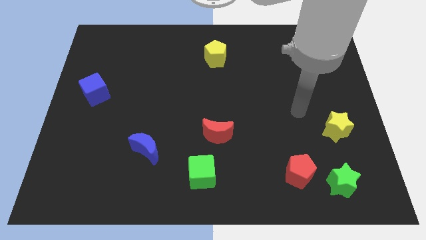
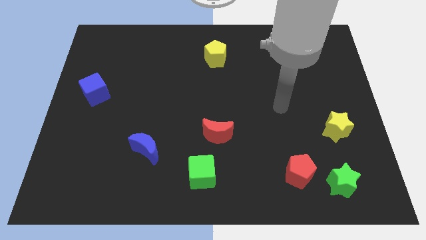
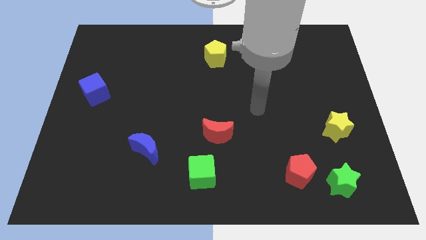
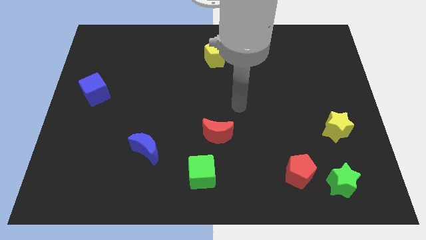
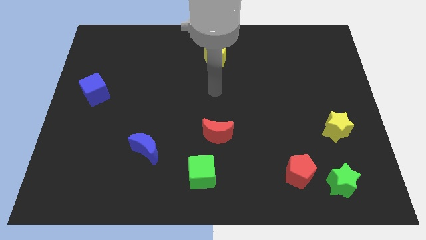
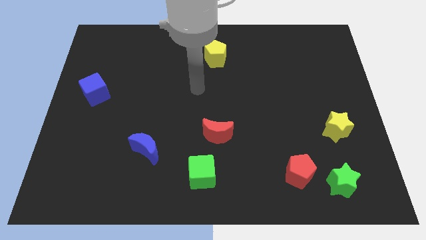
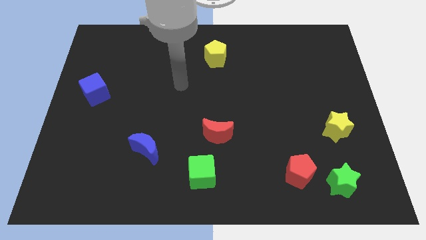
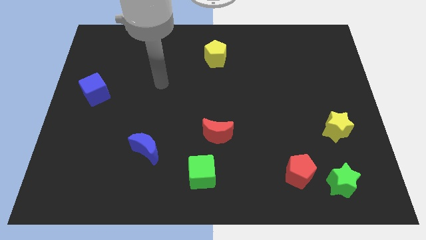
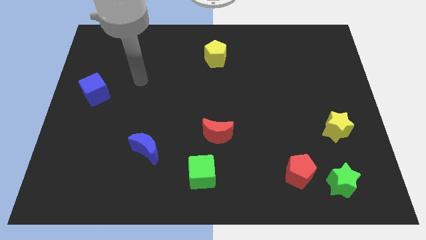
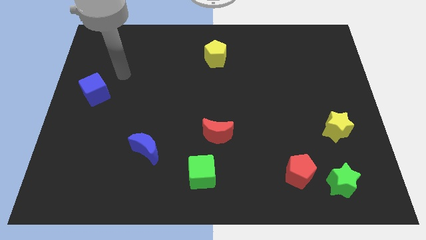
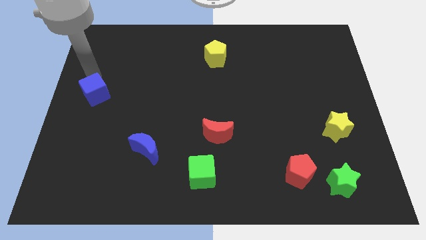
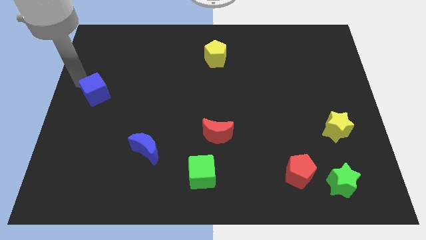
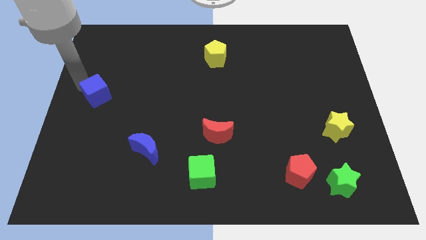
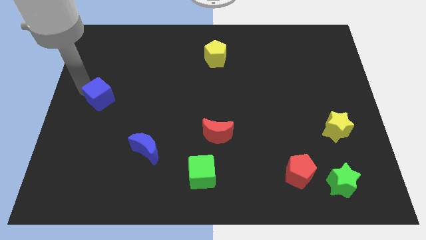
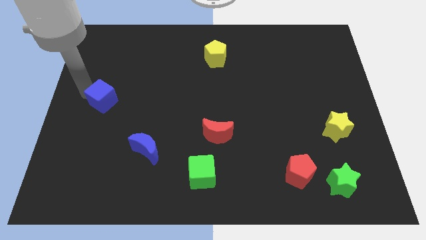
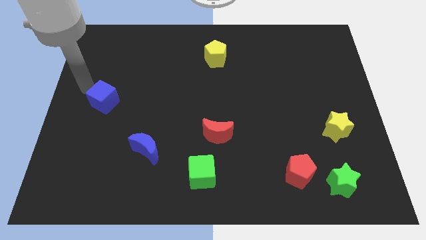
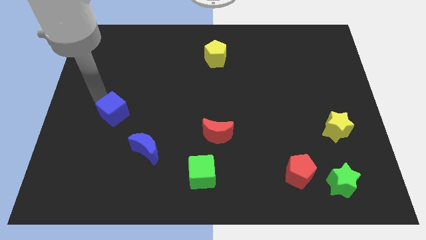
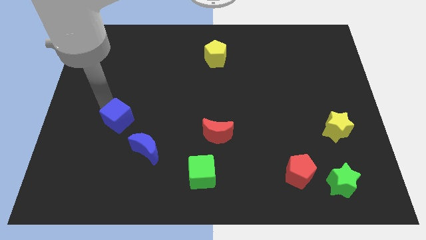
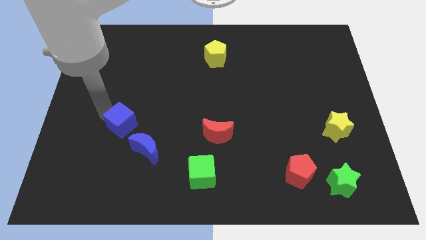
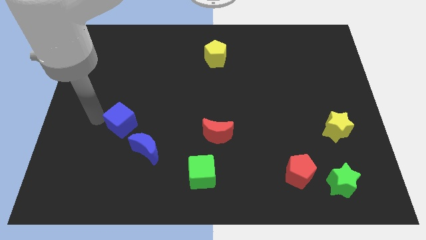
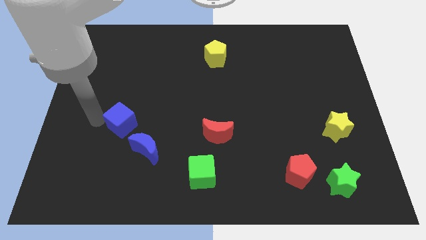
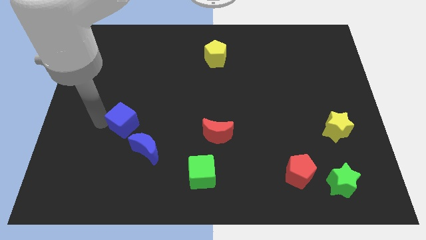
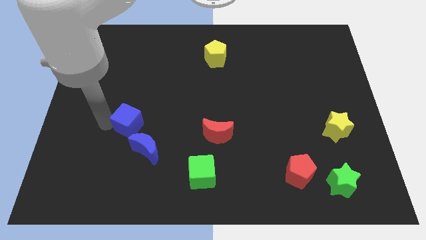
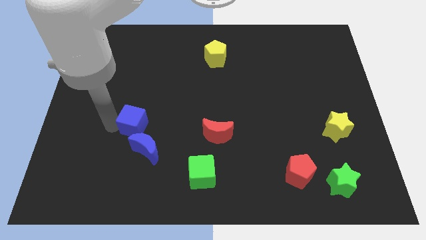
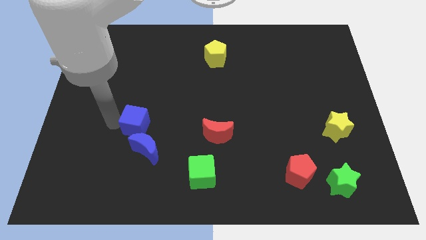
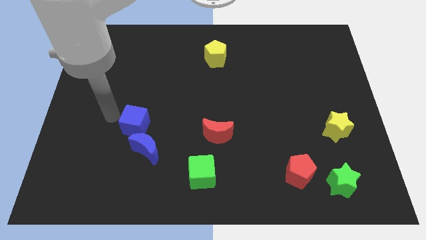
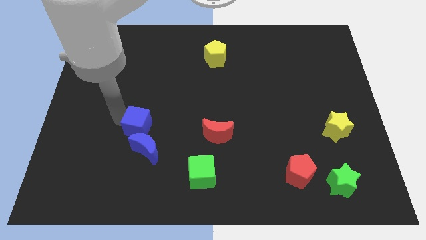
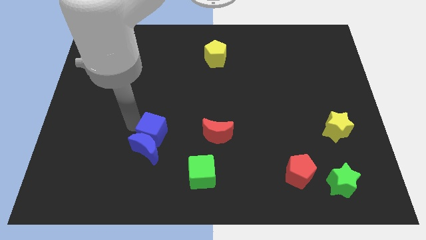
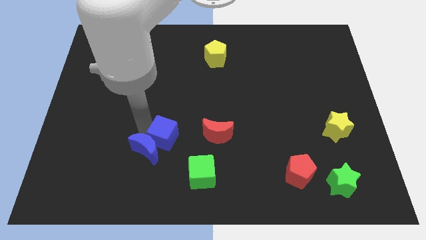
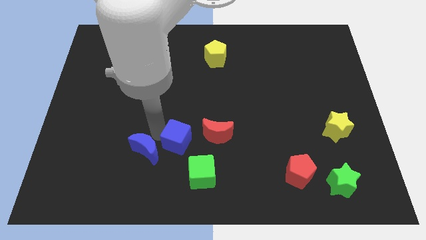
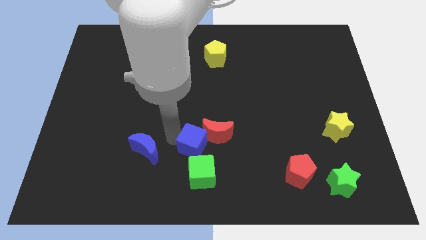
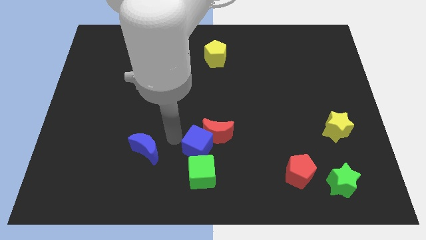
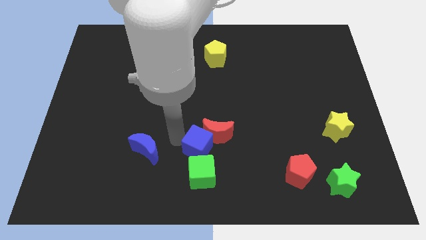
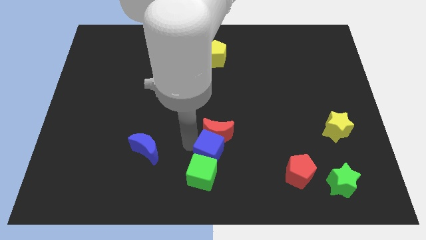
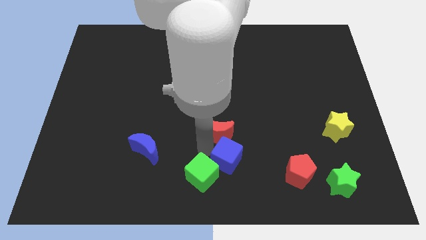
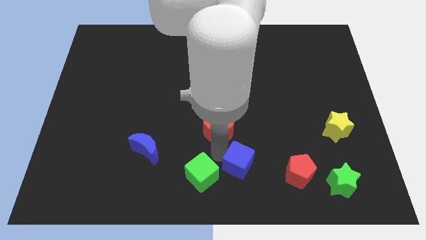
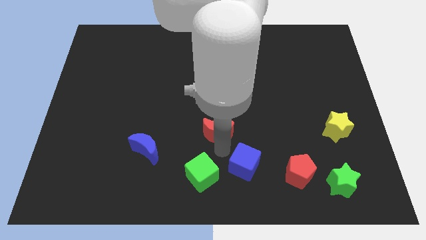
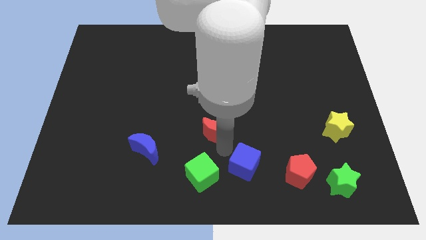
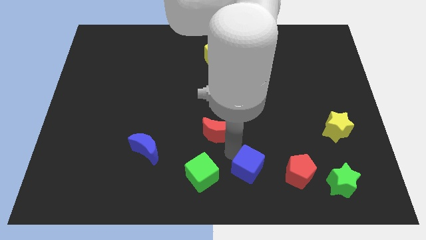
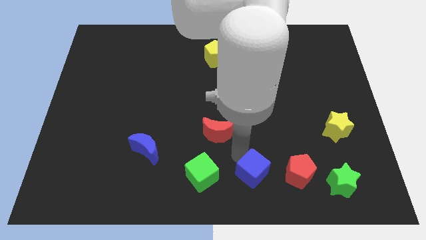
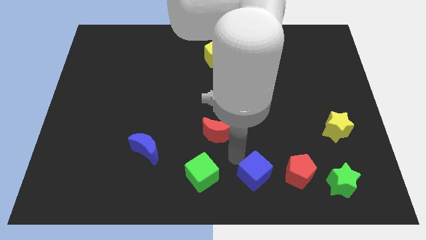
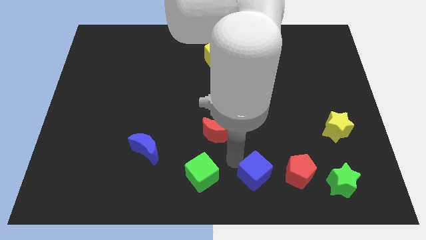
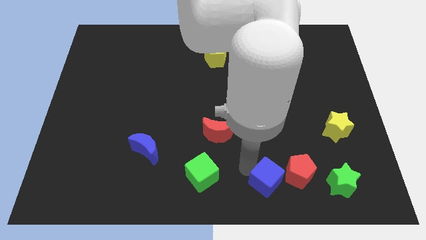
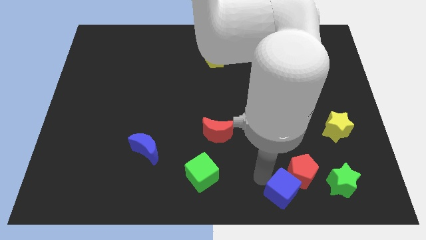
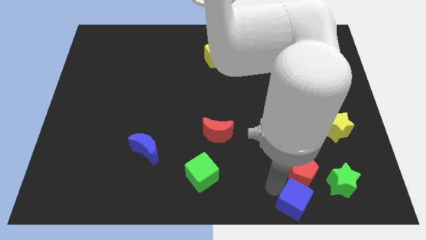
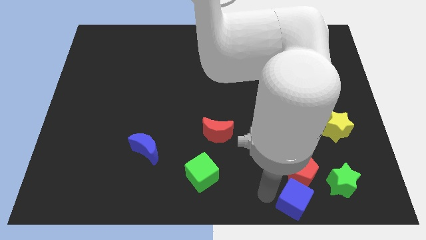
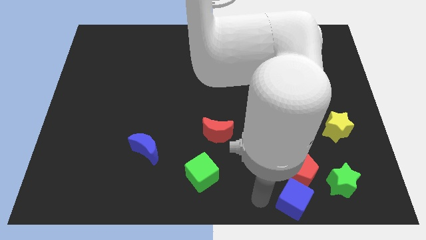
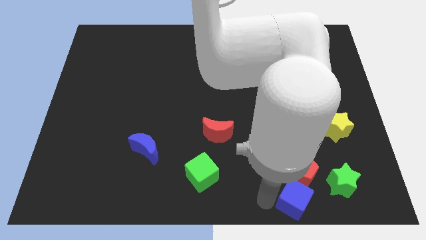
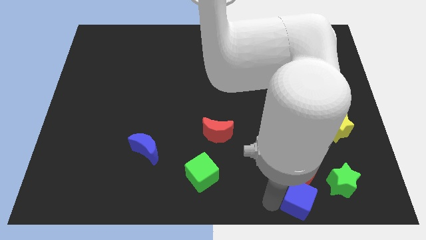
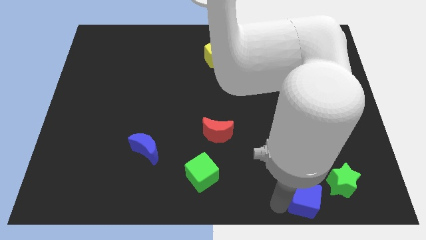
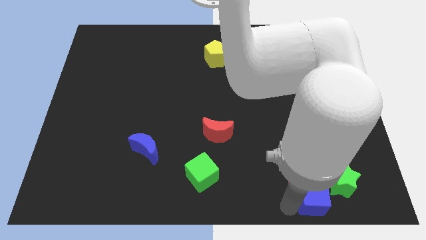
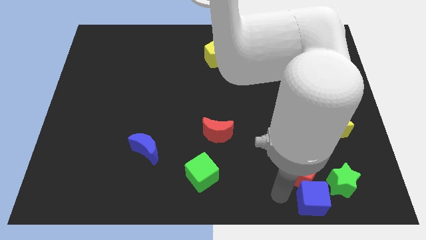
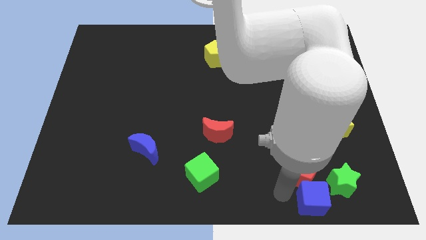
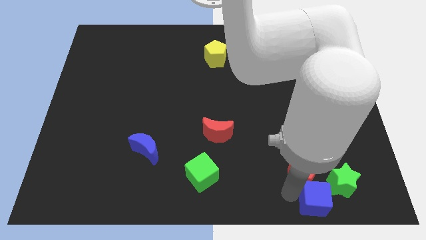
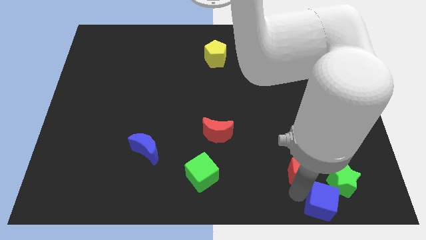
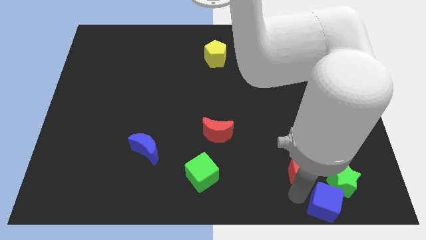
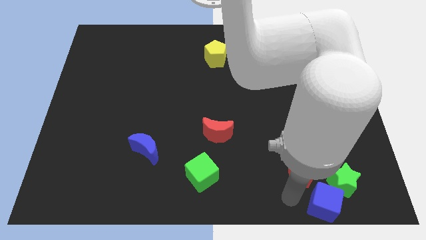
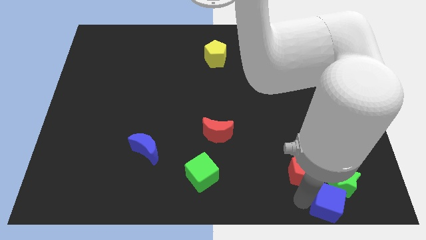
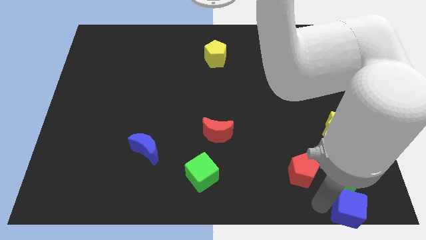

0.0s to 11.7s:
move the blue cube to the bottom right corner

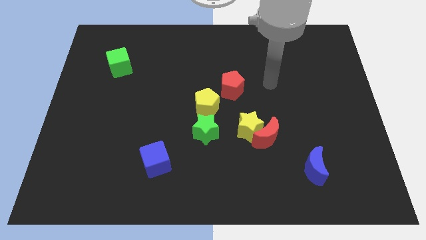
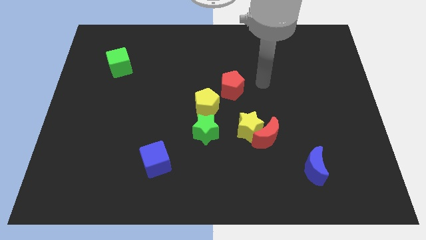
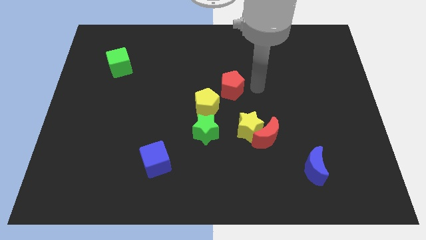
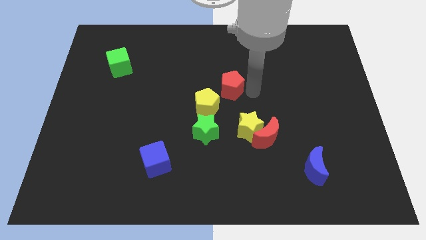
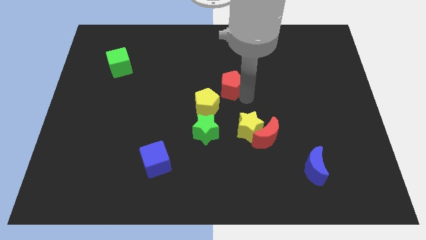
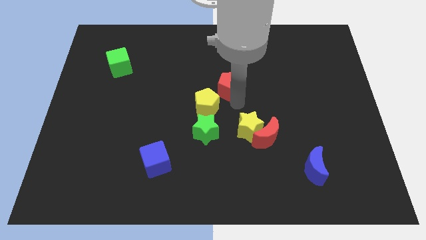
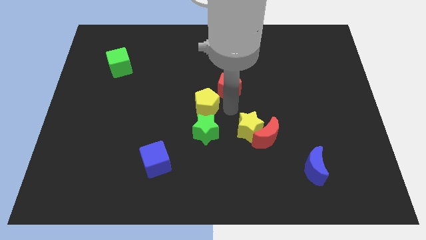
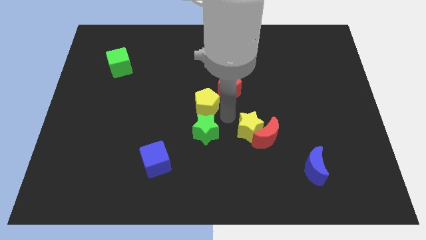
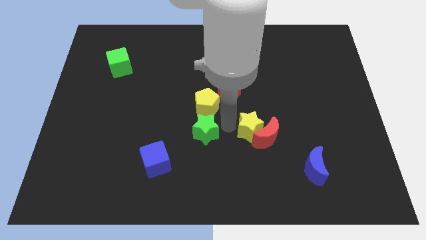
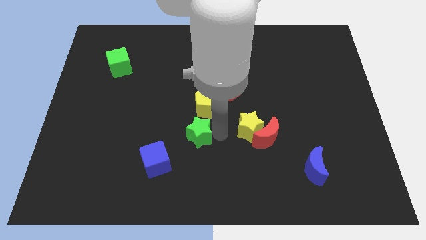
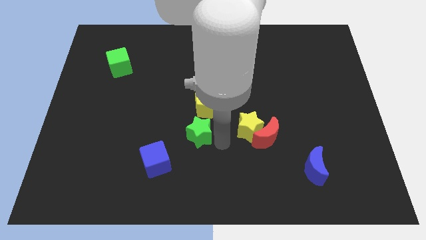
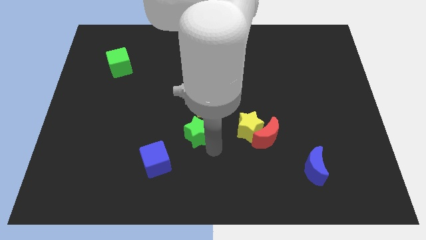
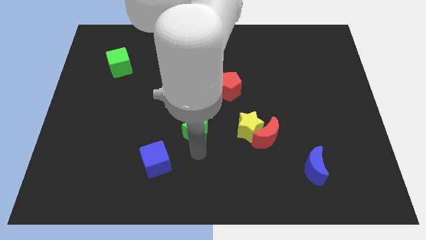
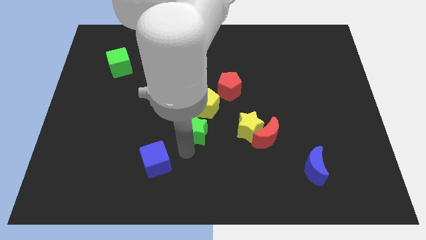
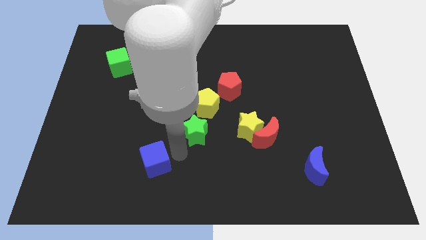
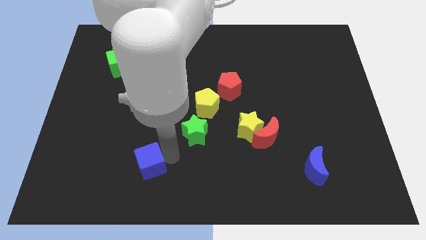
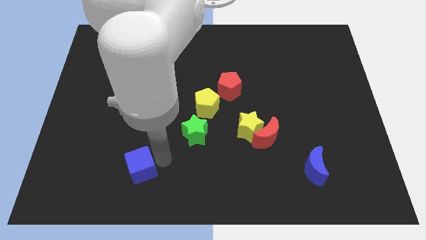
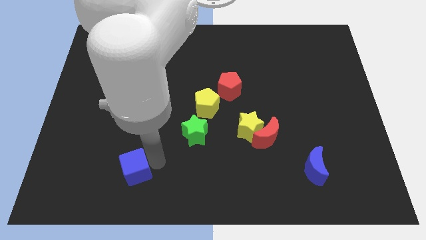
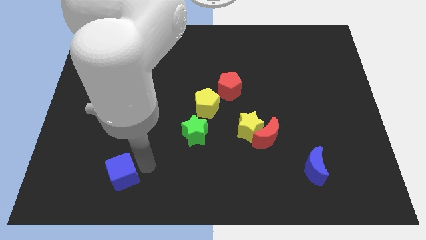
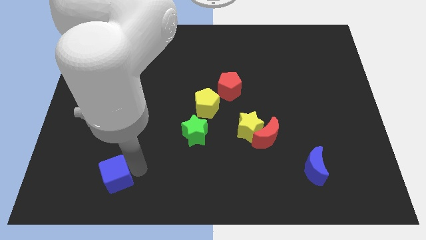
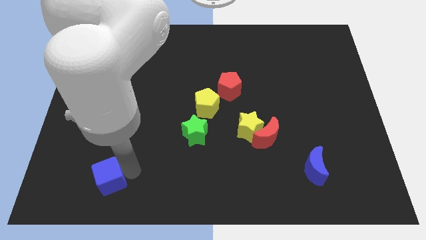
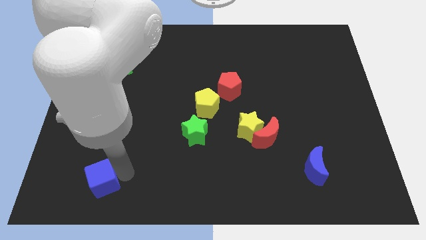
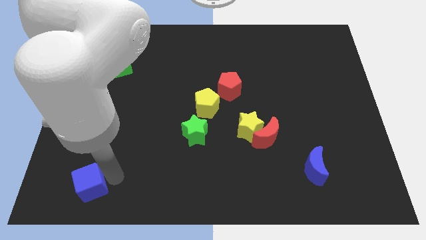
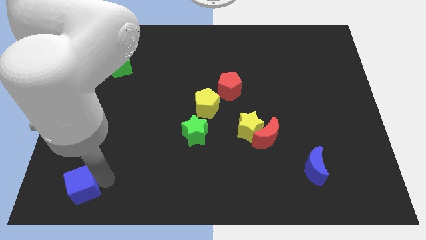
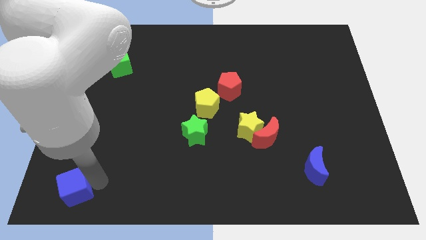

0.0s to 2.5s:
put the blue cube to the bottom left corner
